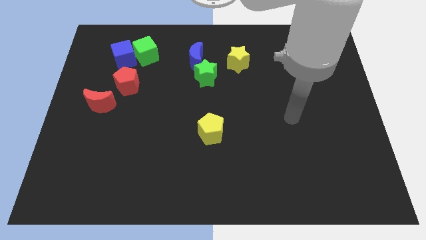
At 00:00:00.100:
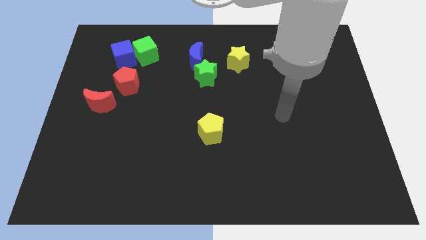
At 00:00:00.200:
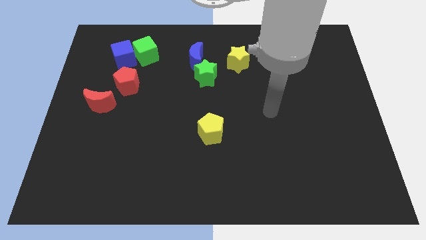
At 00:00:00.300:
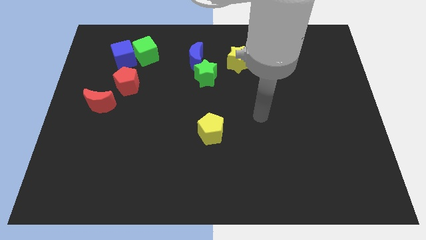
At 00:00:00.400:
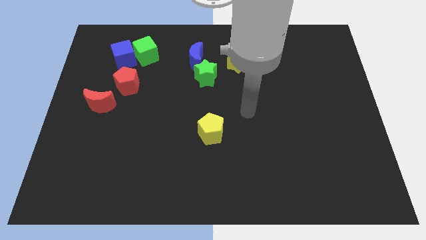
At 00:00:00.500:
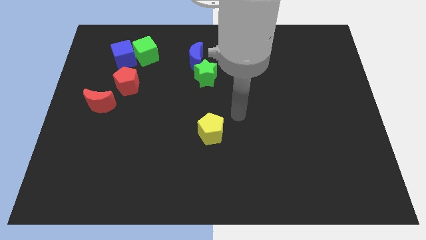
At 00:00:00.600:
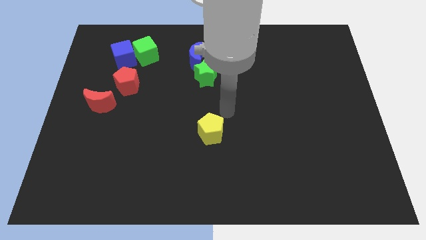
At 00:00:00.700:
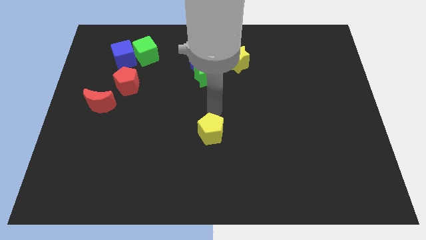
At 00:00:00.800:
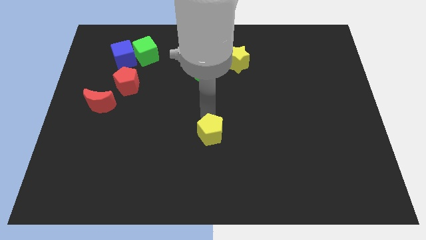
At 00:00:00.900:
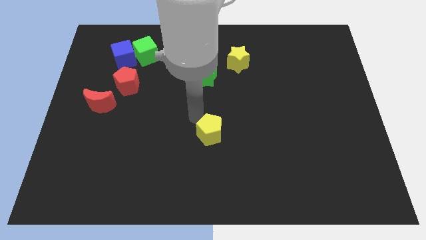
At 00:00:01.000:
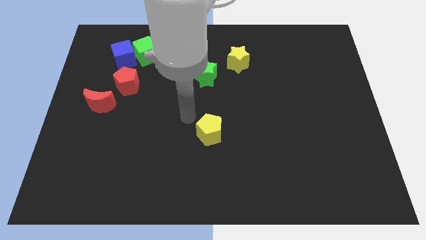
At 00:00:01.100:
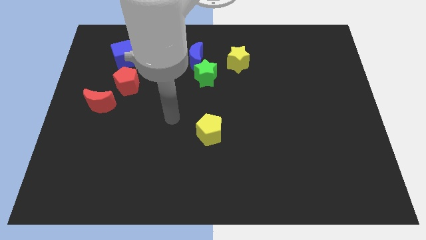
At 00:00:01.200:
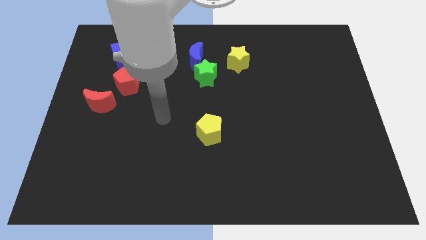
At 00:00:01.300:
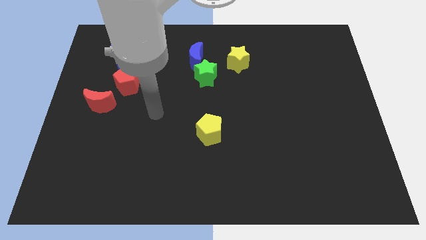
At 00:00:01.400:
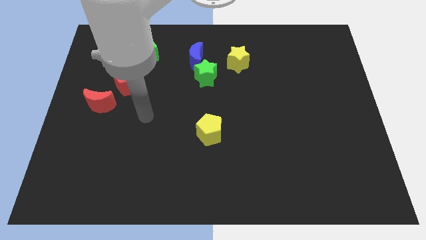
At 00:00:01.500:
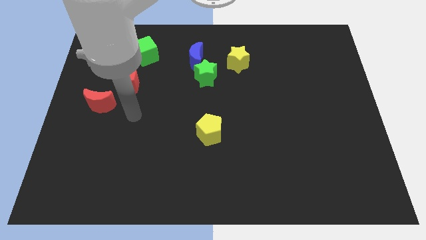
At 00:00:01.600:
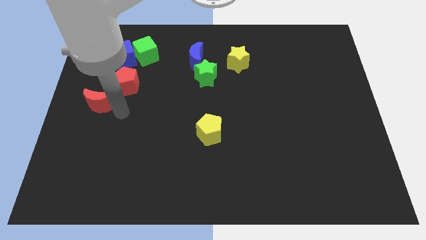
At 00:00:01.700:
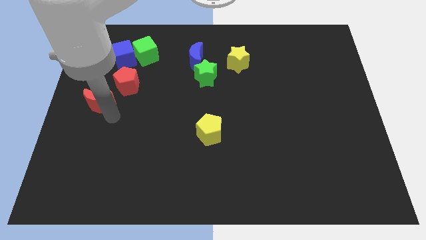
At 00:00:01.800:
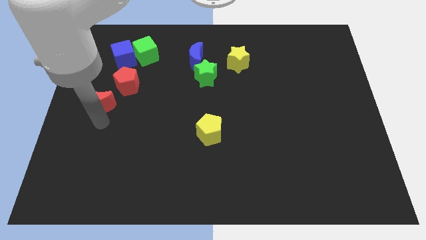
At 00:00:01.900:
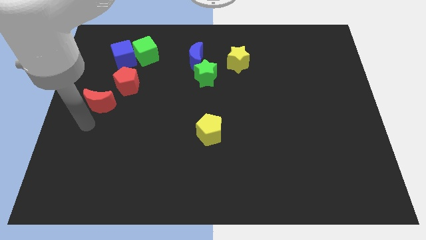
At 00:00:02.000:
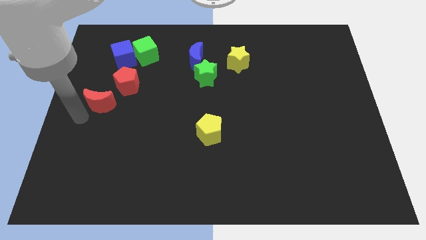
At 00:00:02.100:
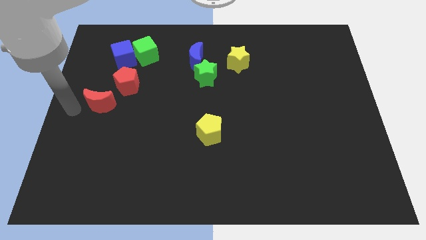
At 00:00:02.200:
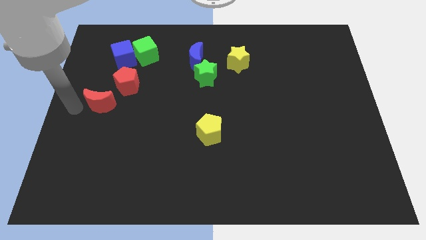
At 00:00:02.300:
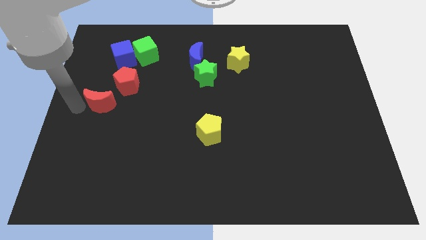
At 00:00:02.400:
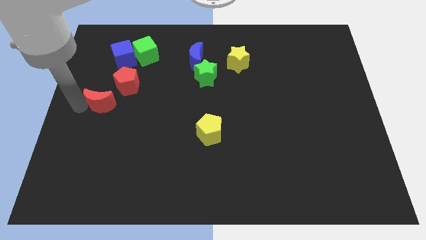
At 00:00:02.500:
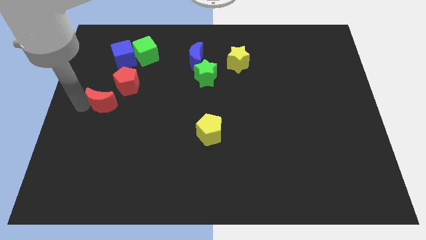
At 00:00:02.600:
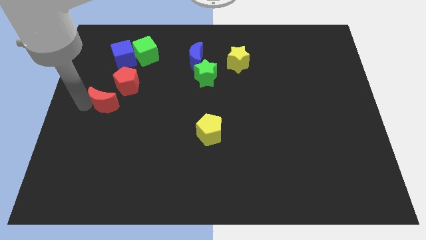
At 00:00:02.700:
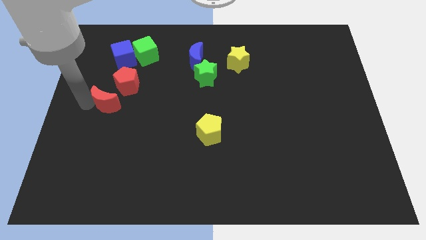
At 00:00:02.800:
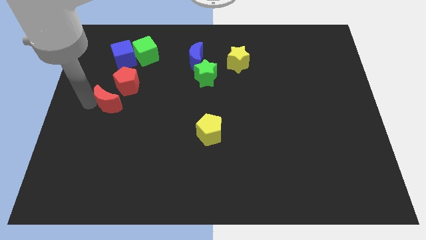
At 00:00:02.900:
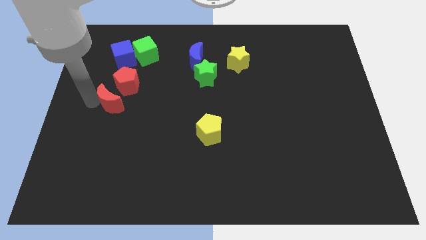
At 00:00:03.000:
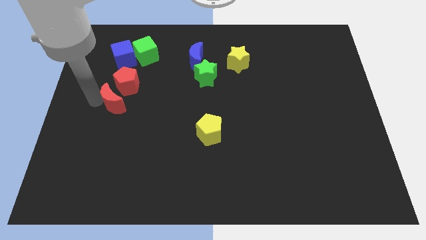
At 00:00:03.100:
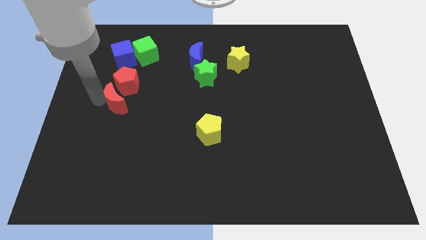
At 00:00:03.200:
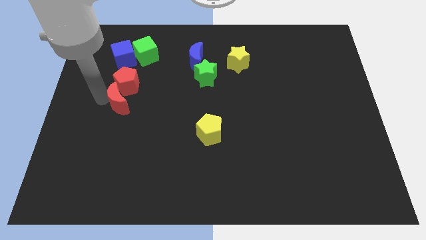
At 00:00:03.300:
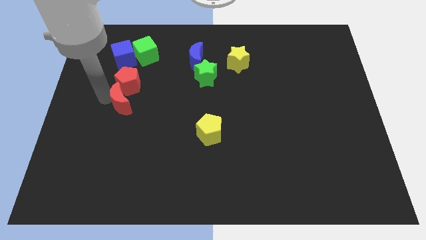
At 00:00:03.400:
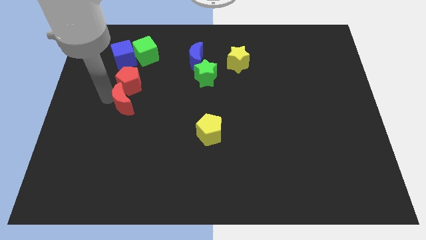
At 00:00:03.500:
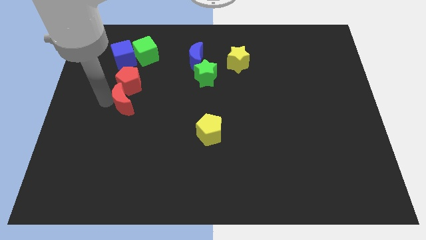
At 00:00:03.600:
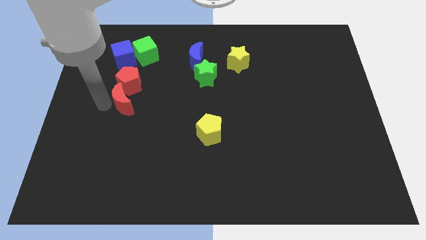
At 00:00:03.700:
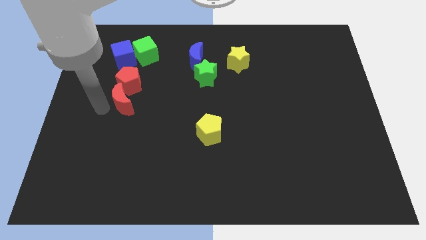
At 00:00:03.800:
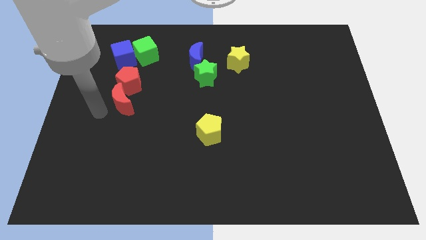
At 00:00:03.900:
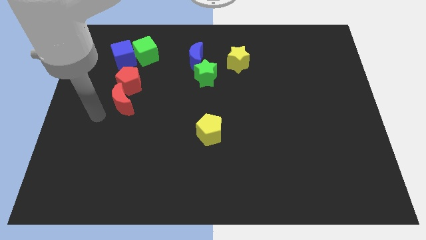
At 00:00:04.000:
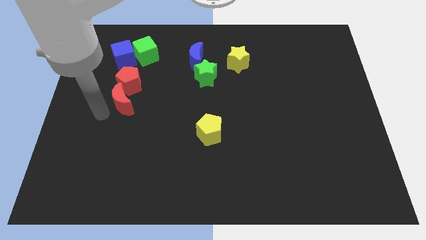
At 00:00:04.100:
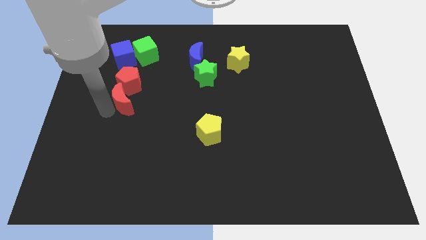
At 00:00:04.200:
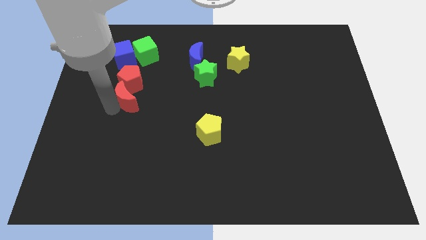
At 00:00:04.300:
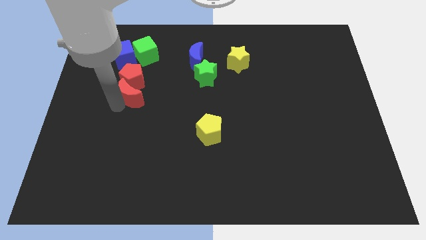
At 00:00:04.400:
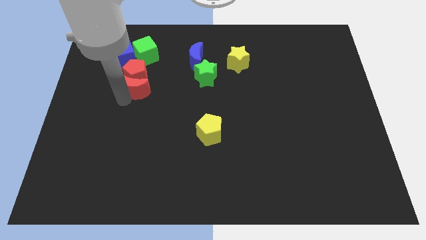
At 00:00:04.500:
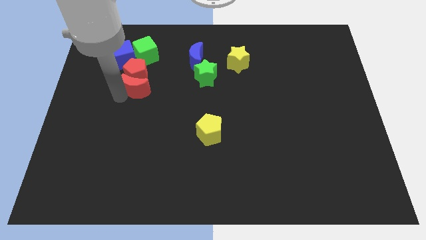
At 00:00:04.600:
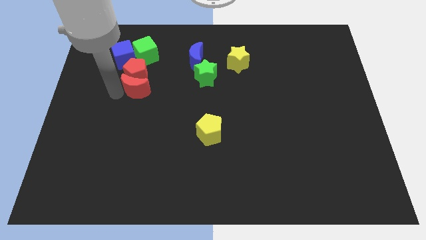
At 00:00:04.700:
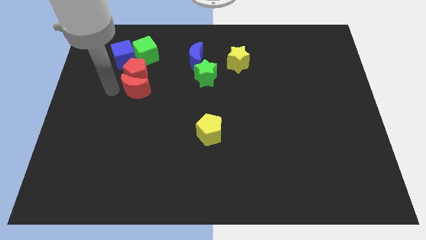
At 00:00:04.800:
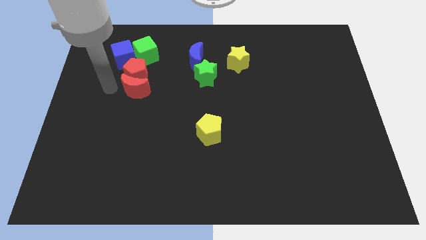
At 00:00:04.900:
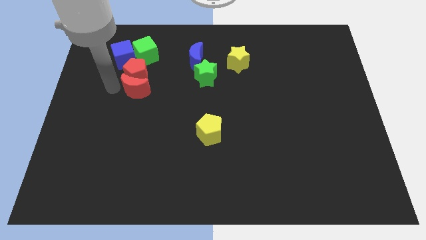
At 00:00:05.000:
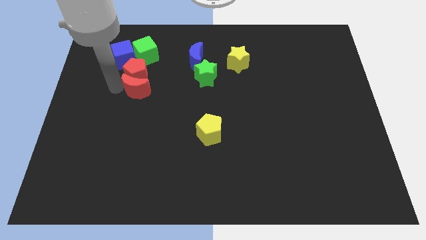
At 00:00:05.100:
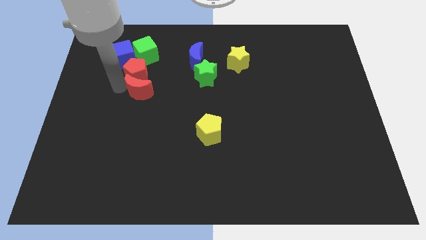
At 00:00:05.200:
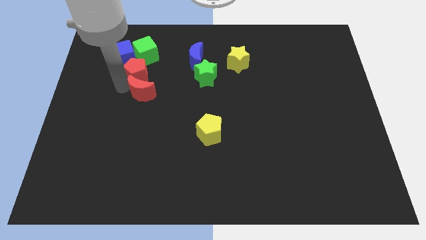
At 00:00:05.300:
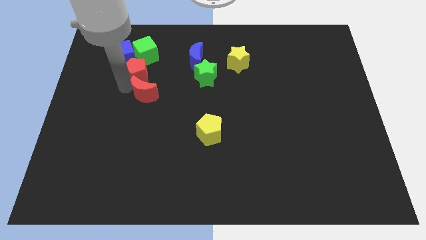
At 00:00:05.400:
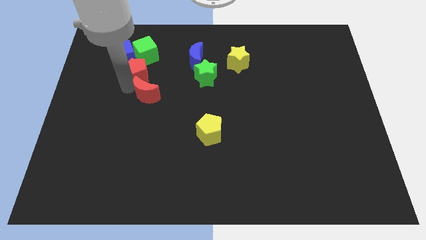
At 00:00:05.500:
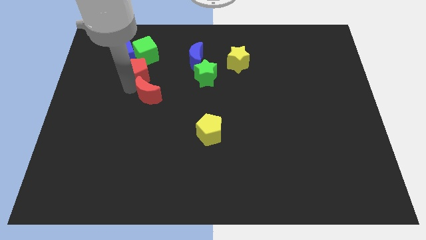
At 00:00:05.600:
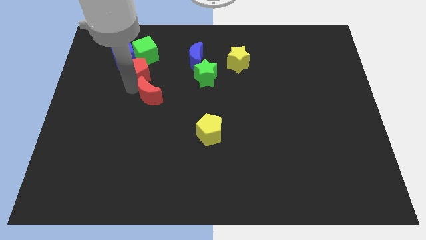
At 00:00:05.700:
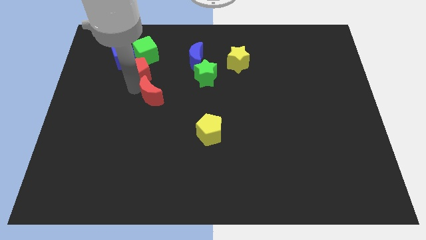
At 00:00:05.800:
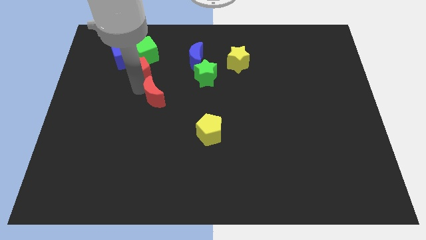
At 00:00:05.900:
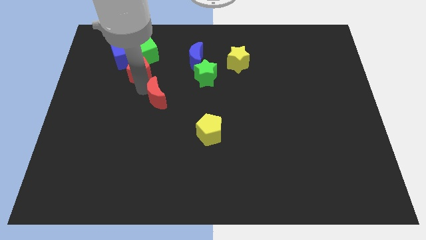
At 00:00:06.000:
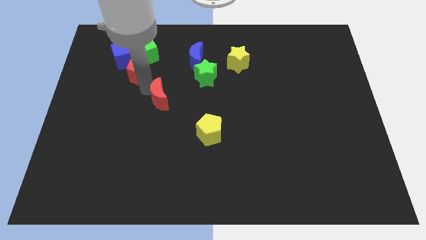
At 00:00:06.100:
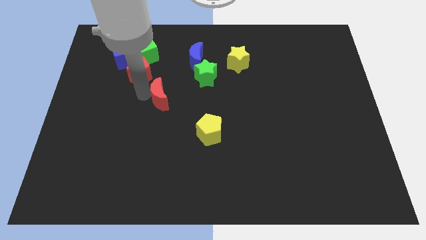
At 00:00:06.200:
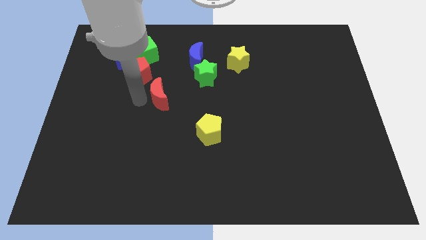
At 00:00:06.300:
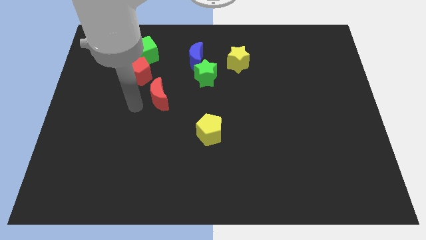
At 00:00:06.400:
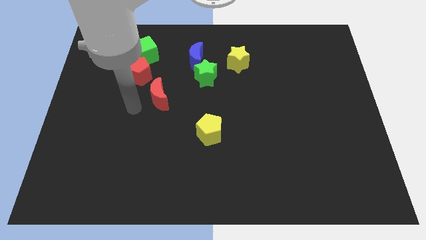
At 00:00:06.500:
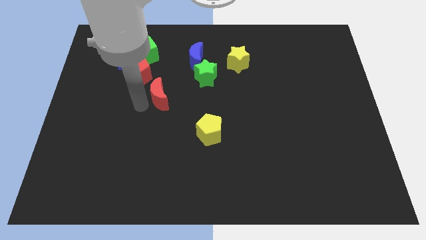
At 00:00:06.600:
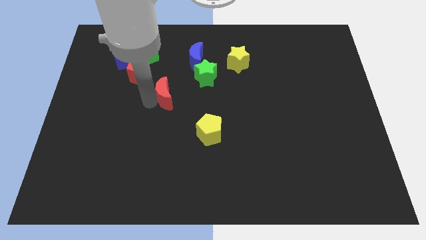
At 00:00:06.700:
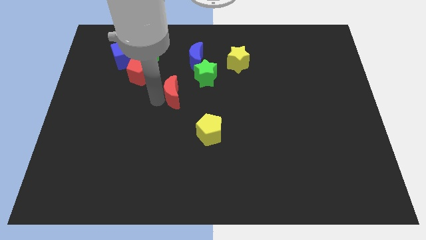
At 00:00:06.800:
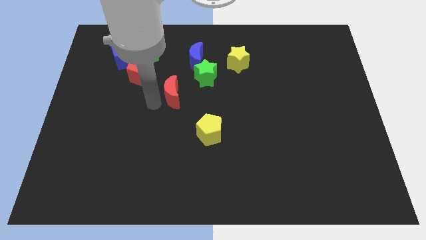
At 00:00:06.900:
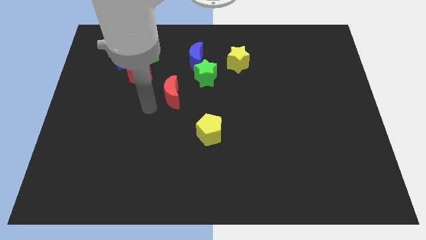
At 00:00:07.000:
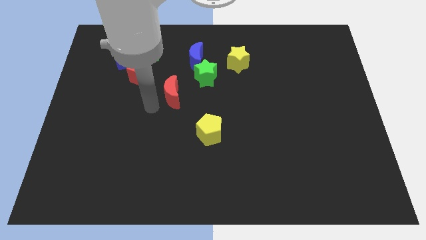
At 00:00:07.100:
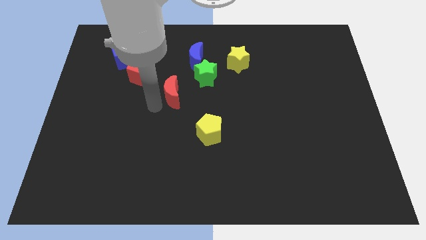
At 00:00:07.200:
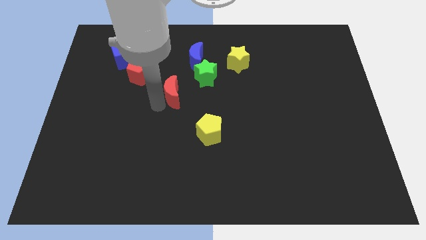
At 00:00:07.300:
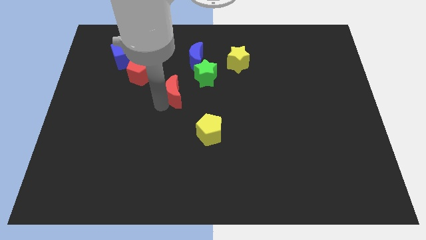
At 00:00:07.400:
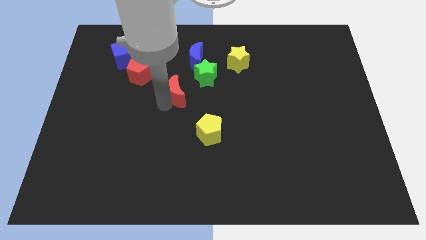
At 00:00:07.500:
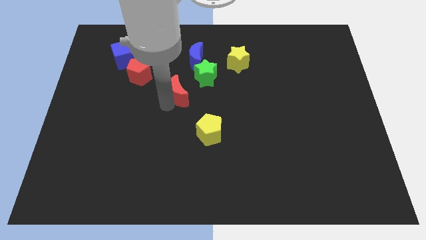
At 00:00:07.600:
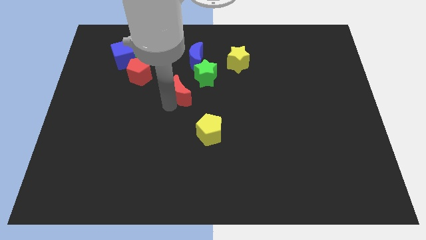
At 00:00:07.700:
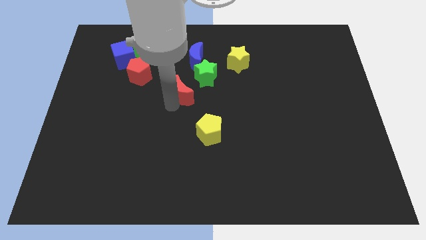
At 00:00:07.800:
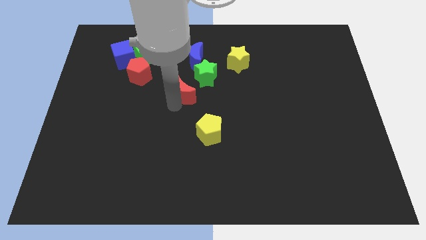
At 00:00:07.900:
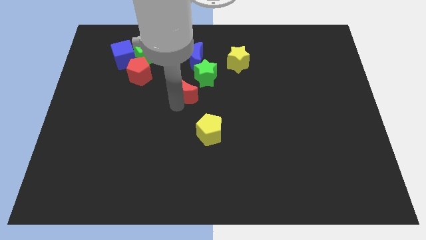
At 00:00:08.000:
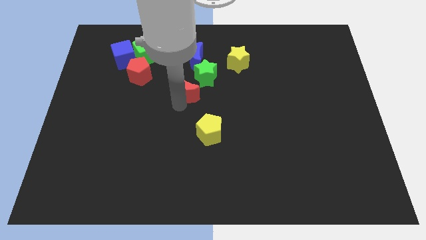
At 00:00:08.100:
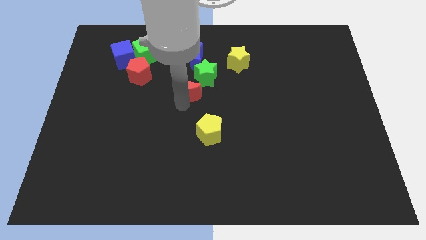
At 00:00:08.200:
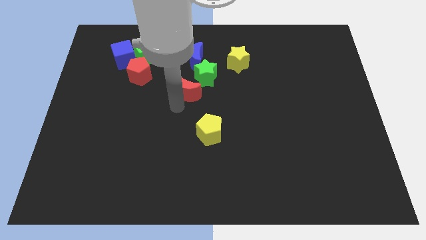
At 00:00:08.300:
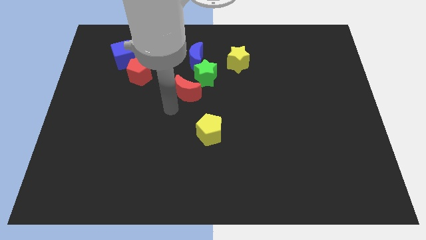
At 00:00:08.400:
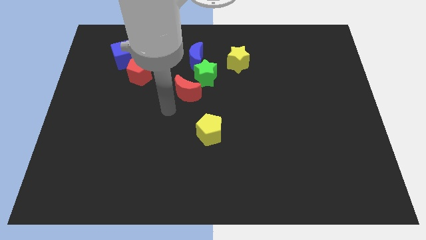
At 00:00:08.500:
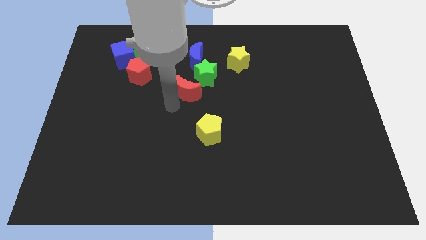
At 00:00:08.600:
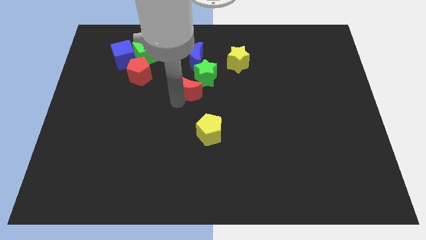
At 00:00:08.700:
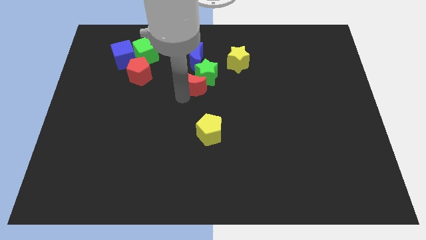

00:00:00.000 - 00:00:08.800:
put the red moon close to the green star
